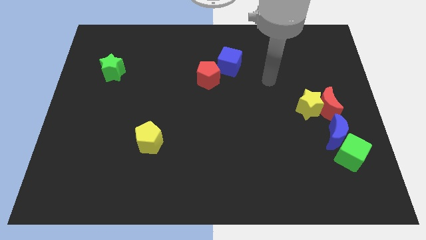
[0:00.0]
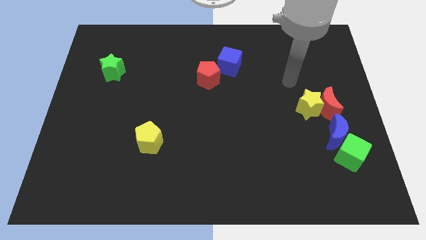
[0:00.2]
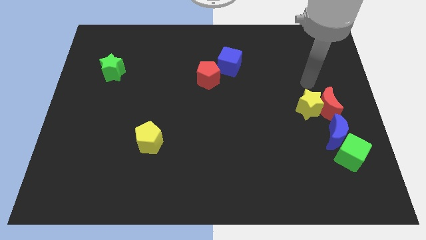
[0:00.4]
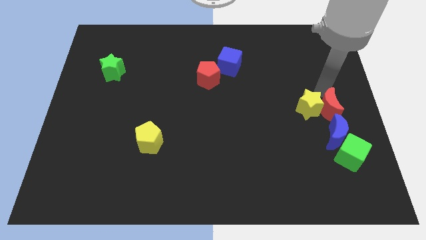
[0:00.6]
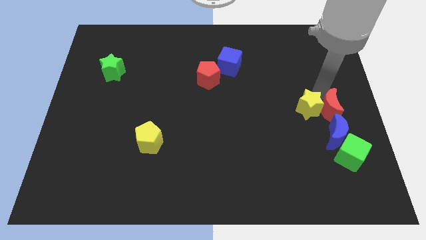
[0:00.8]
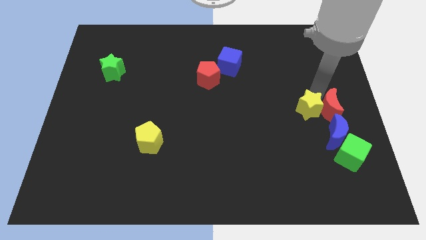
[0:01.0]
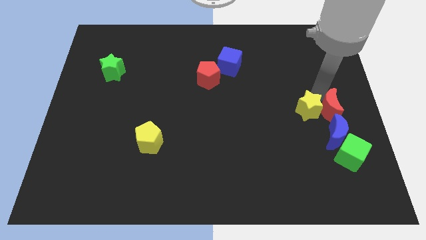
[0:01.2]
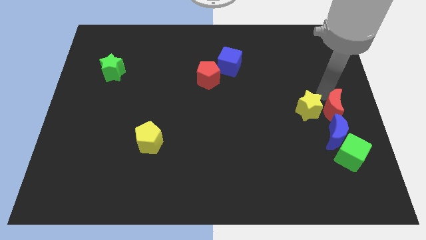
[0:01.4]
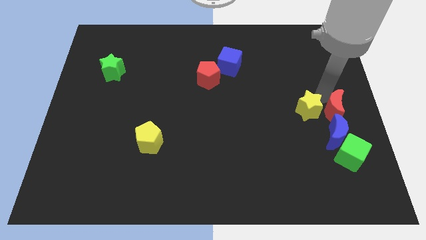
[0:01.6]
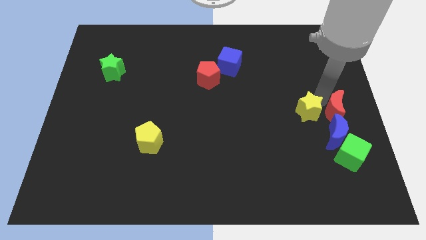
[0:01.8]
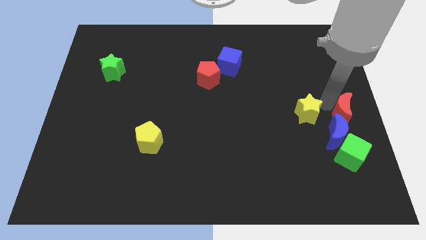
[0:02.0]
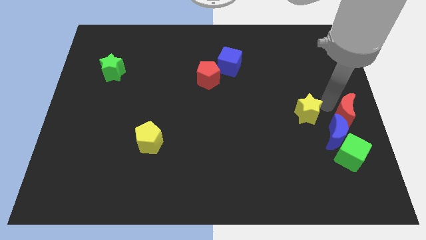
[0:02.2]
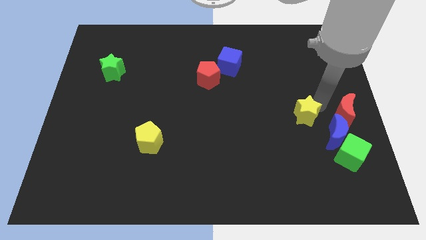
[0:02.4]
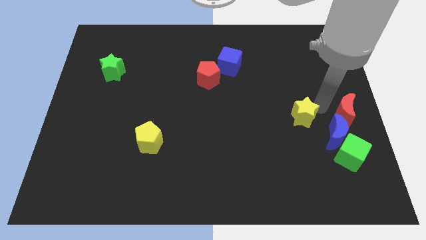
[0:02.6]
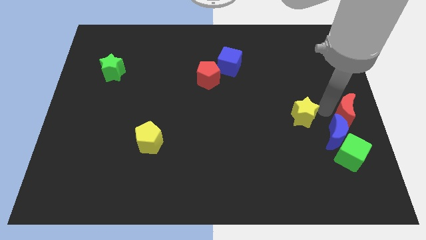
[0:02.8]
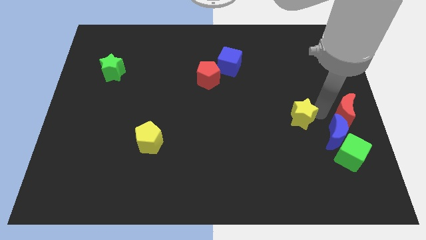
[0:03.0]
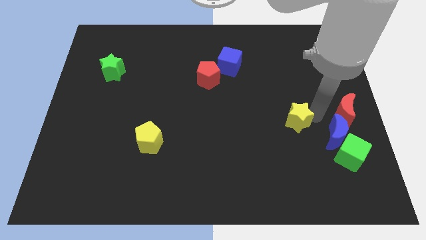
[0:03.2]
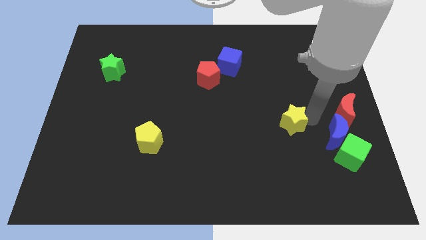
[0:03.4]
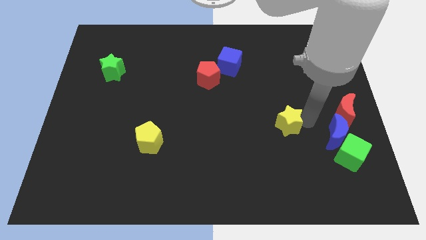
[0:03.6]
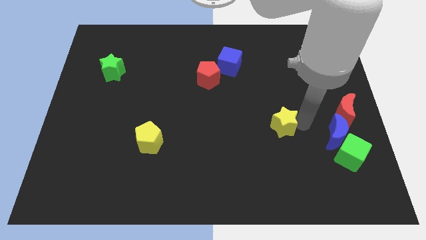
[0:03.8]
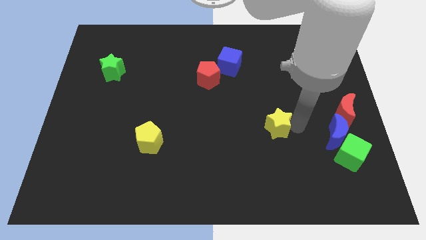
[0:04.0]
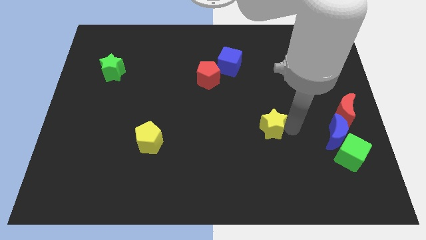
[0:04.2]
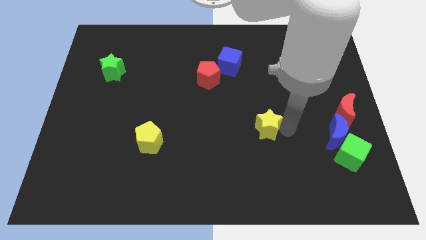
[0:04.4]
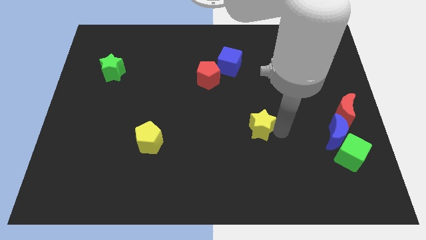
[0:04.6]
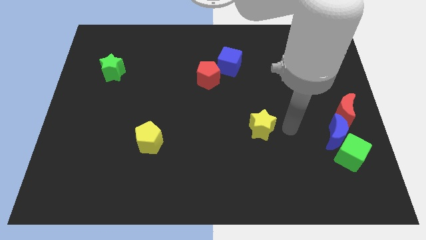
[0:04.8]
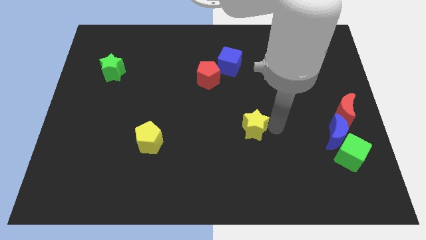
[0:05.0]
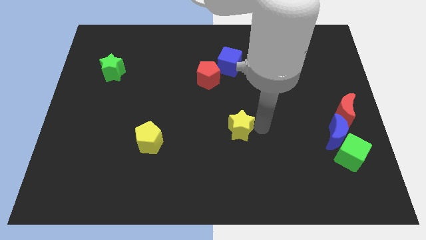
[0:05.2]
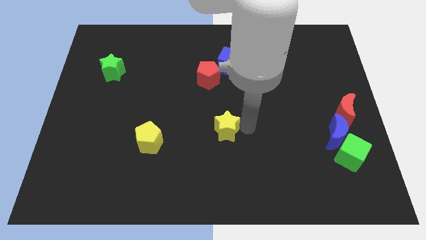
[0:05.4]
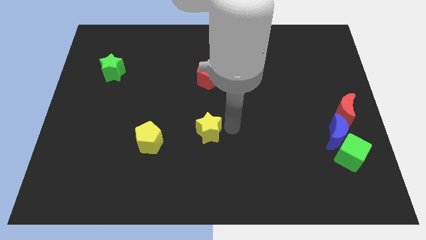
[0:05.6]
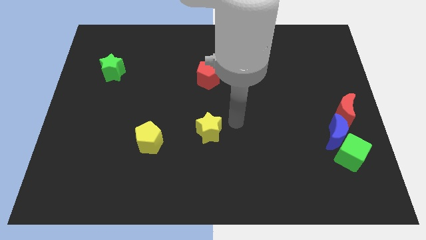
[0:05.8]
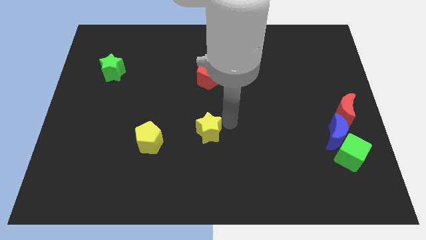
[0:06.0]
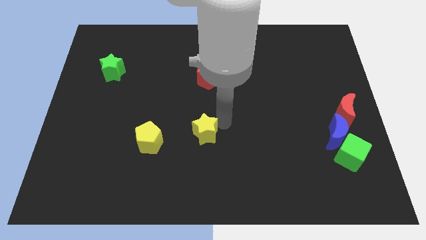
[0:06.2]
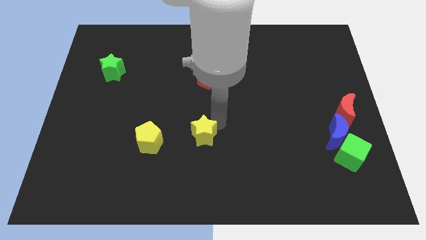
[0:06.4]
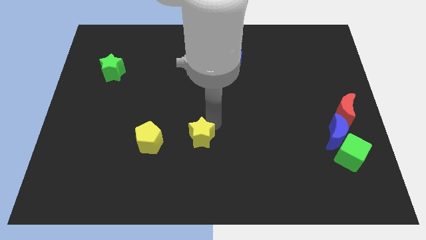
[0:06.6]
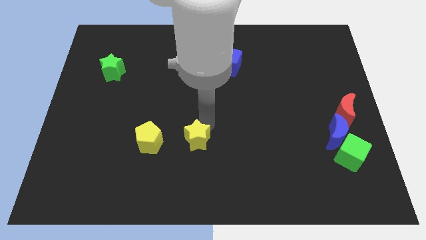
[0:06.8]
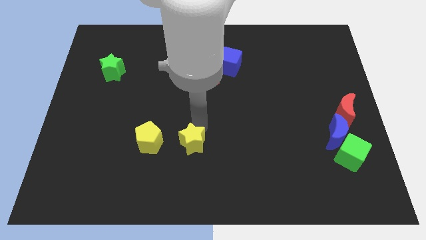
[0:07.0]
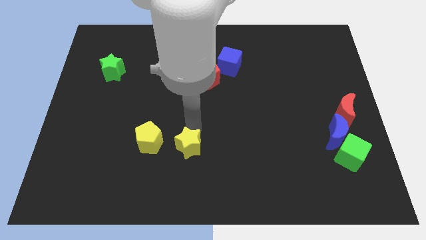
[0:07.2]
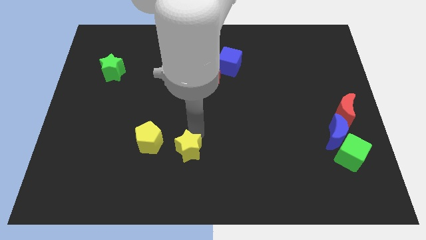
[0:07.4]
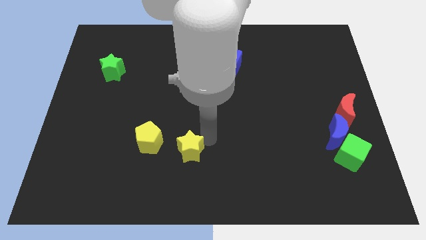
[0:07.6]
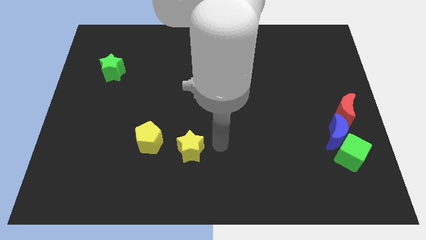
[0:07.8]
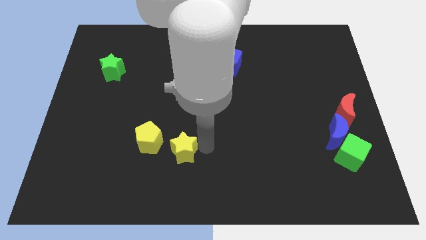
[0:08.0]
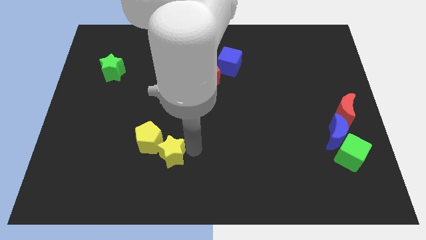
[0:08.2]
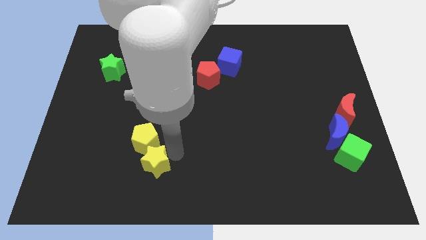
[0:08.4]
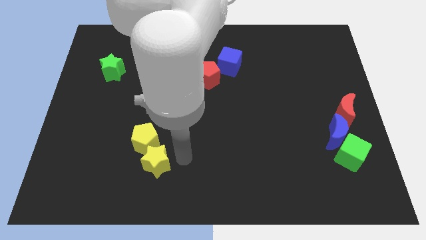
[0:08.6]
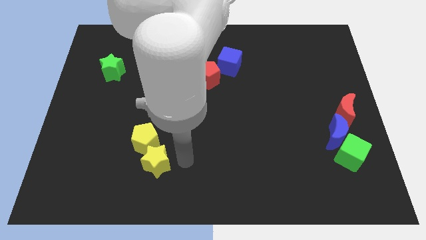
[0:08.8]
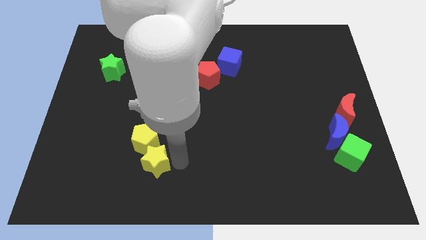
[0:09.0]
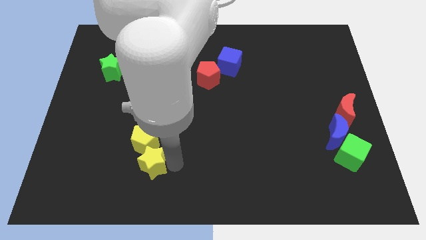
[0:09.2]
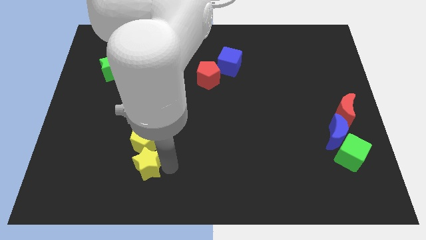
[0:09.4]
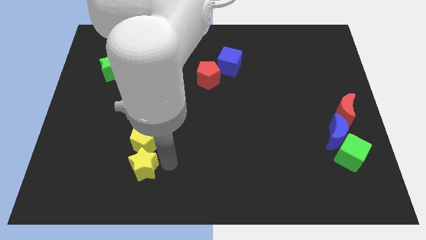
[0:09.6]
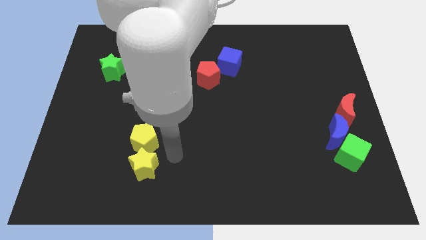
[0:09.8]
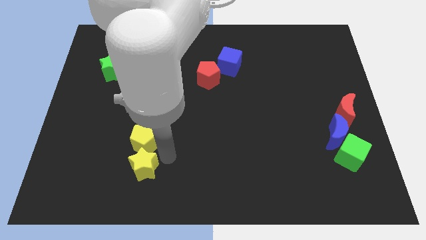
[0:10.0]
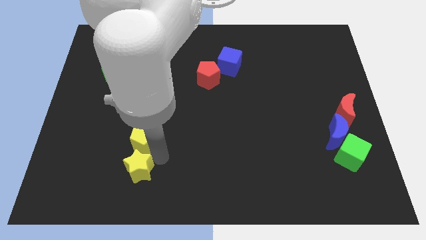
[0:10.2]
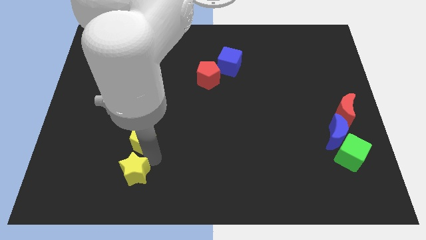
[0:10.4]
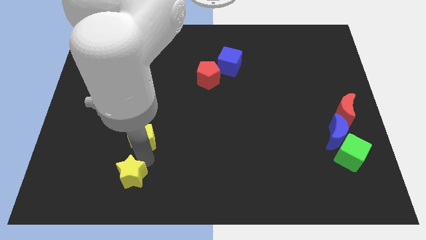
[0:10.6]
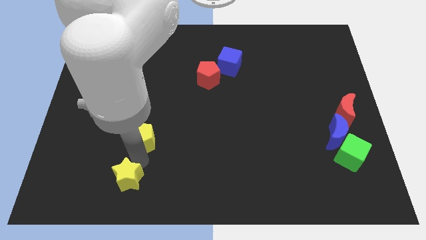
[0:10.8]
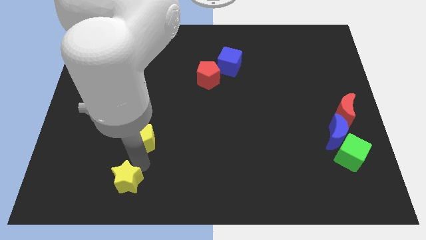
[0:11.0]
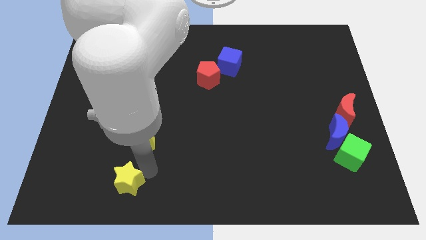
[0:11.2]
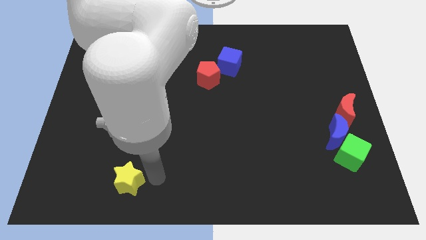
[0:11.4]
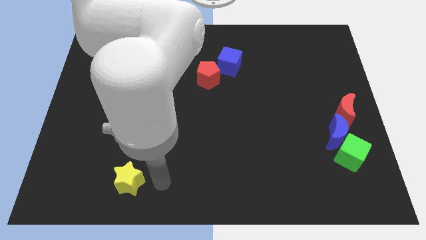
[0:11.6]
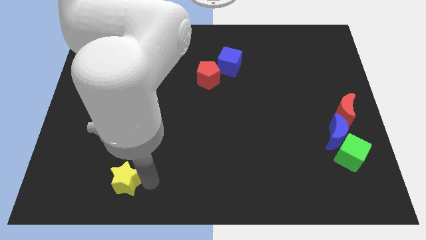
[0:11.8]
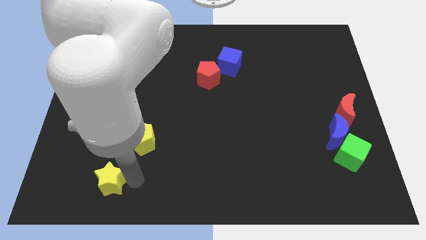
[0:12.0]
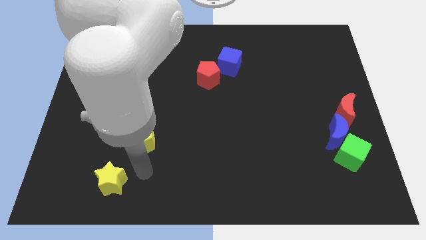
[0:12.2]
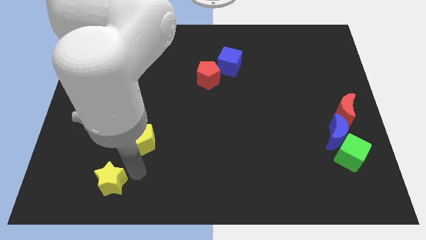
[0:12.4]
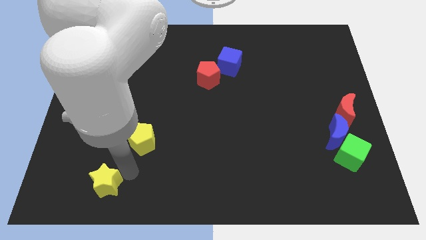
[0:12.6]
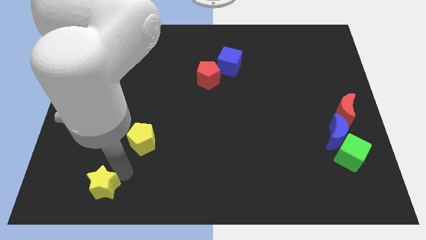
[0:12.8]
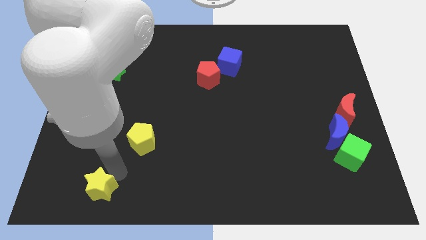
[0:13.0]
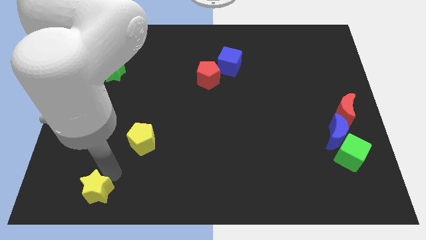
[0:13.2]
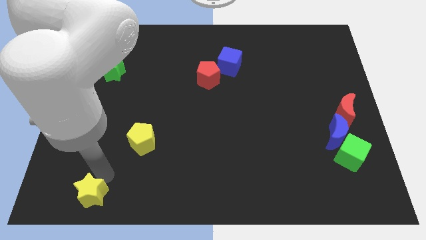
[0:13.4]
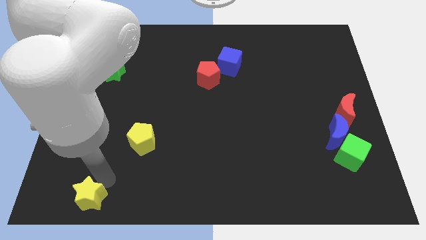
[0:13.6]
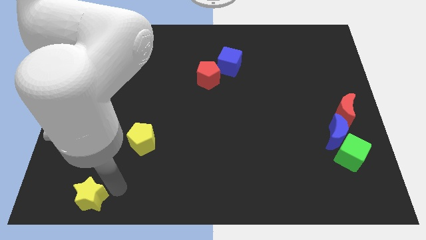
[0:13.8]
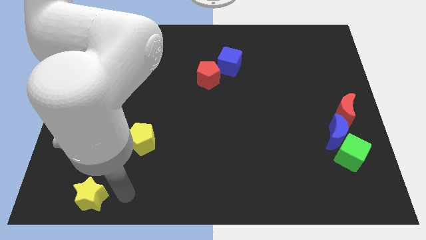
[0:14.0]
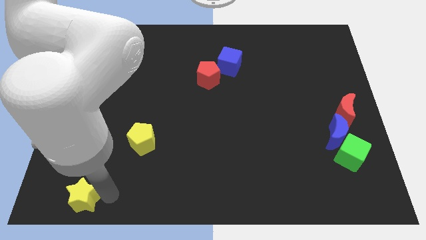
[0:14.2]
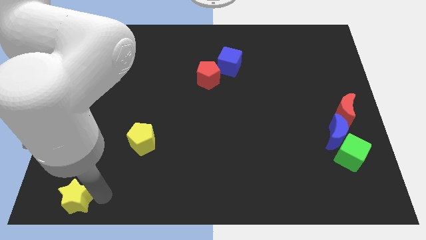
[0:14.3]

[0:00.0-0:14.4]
slide the yellow star to the bottom left corner
